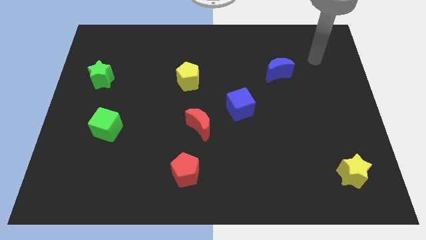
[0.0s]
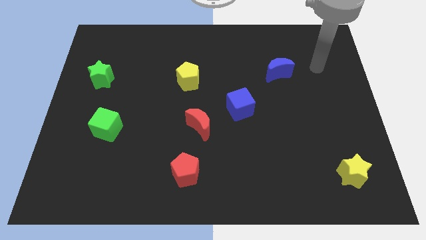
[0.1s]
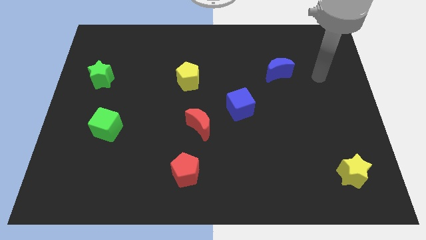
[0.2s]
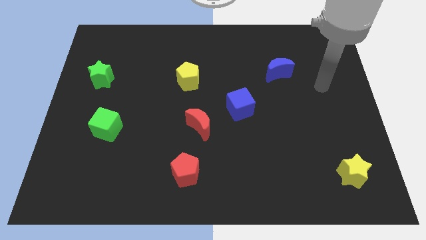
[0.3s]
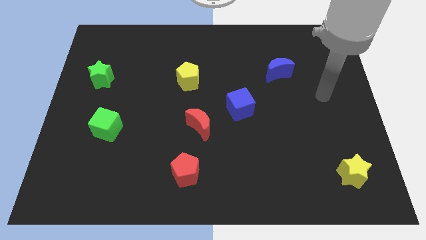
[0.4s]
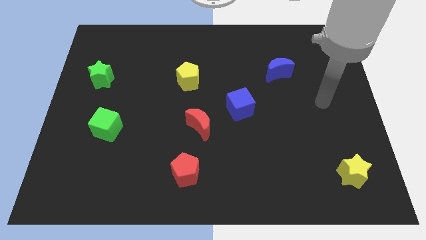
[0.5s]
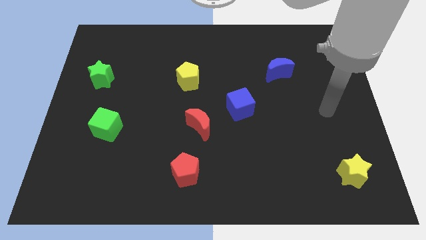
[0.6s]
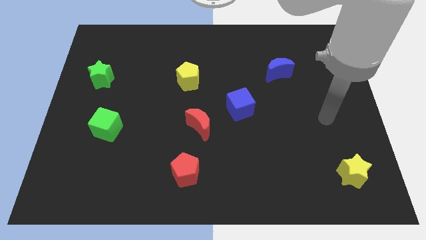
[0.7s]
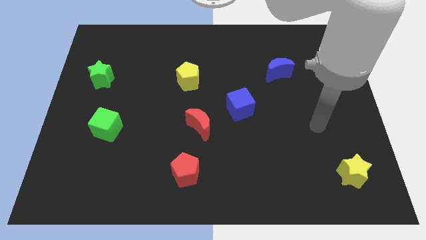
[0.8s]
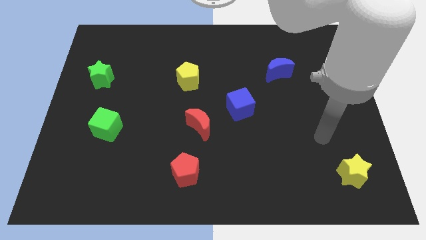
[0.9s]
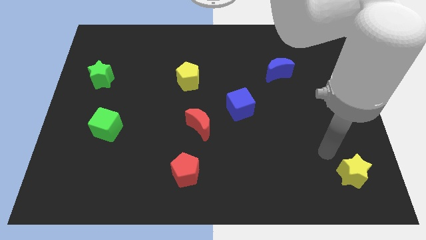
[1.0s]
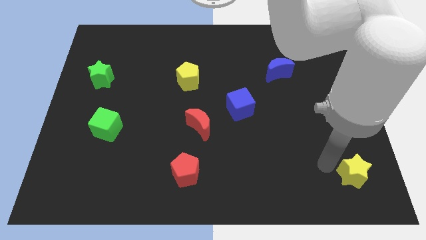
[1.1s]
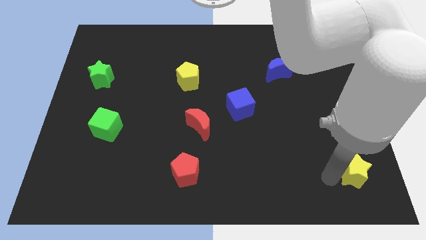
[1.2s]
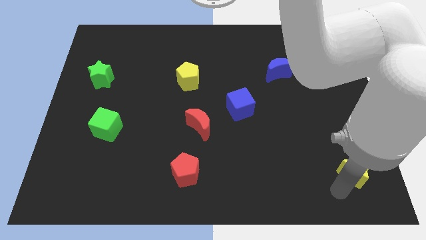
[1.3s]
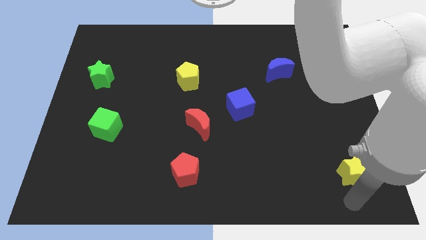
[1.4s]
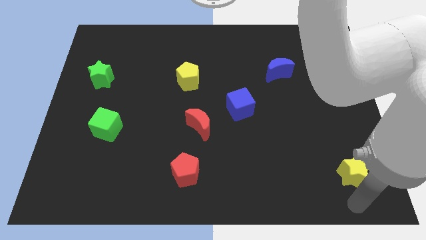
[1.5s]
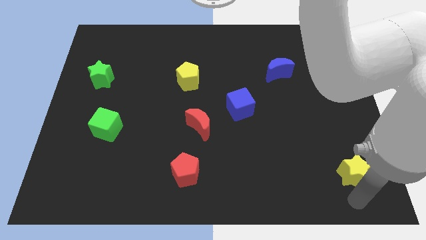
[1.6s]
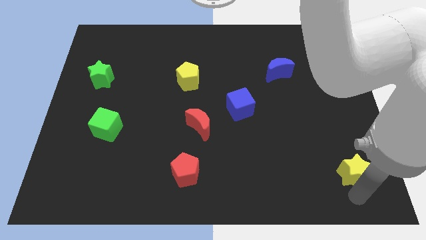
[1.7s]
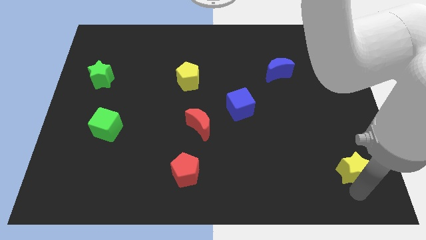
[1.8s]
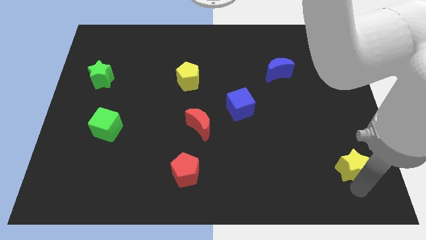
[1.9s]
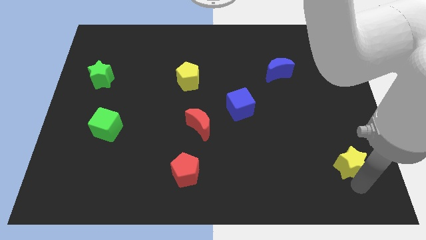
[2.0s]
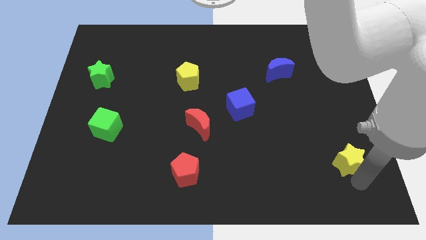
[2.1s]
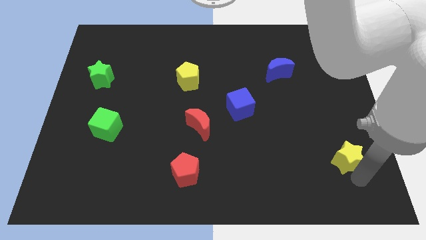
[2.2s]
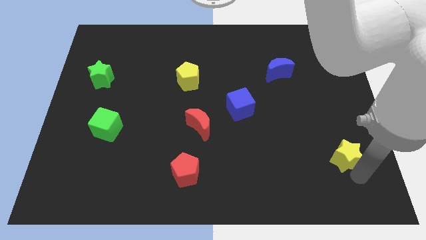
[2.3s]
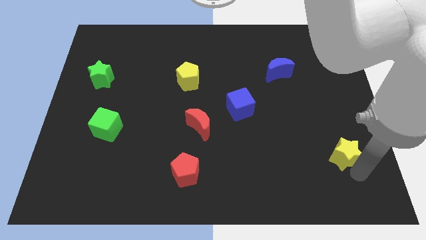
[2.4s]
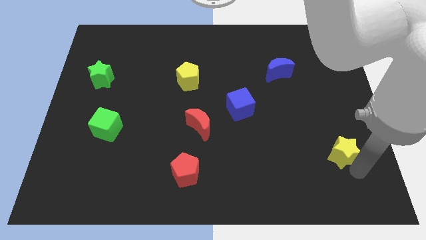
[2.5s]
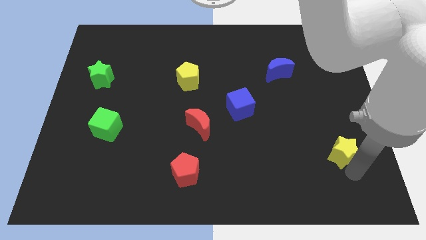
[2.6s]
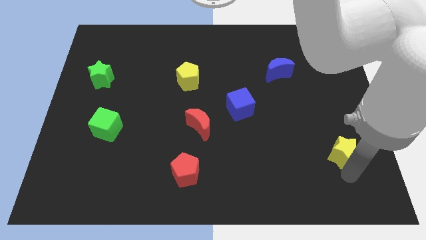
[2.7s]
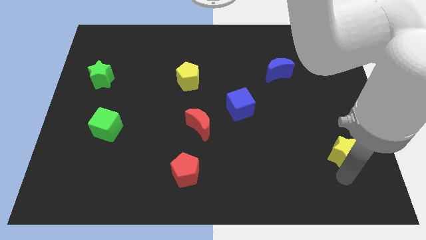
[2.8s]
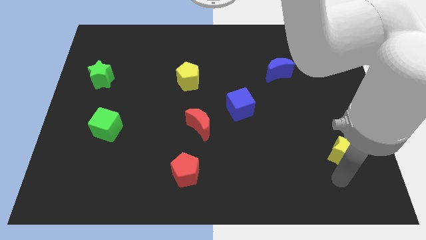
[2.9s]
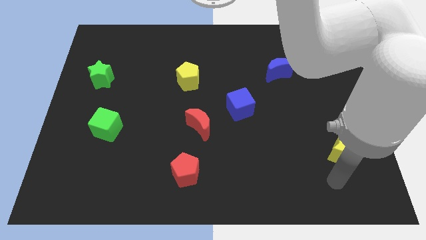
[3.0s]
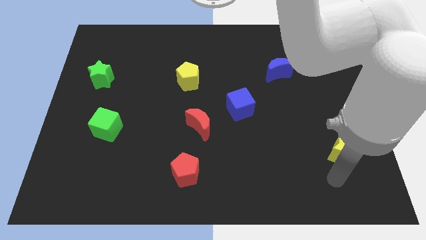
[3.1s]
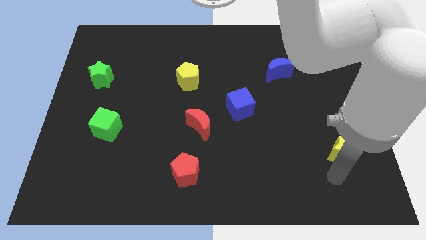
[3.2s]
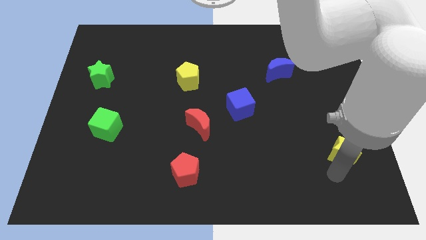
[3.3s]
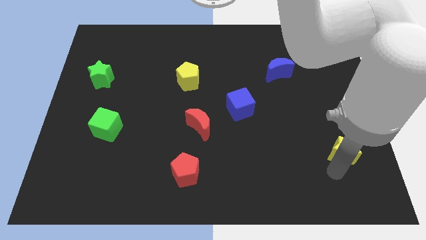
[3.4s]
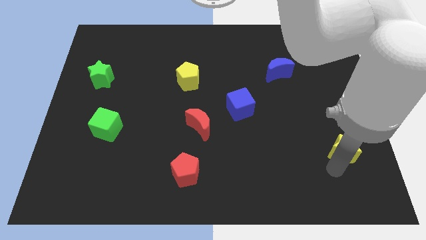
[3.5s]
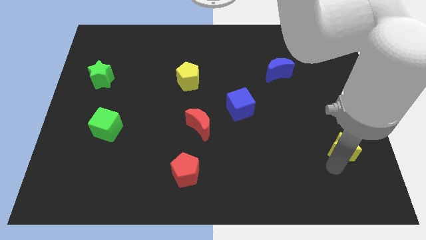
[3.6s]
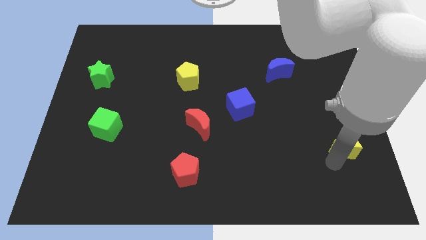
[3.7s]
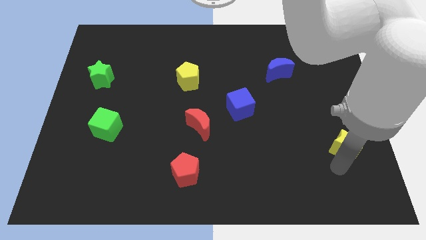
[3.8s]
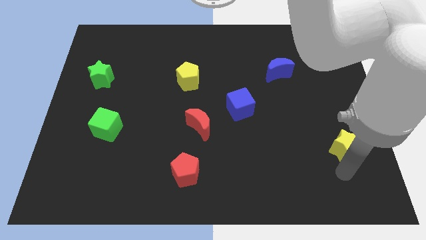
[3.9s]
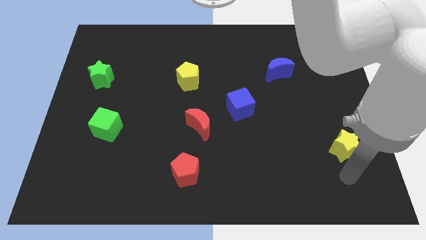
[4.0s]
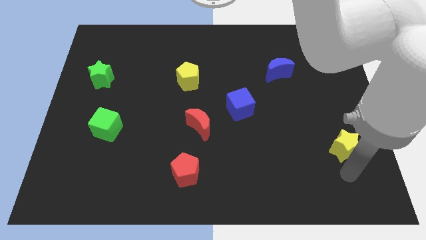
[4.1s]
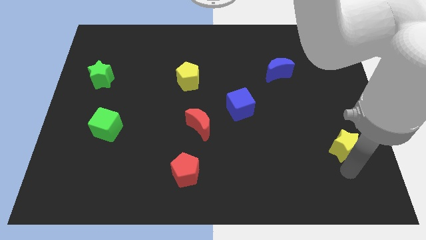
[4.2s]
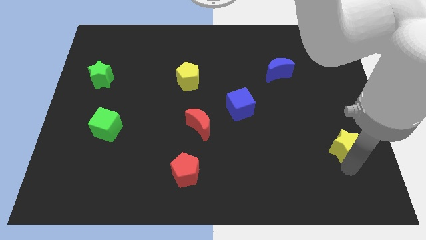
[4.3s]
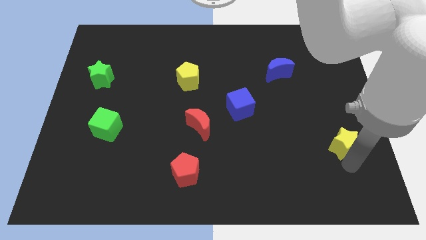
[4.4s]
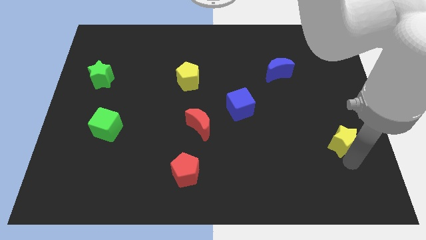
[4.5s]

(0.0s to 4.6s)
push the yellow star upwards a little bit

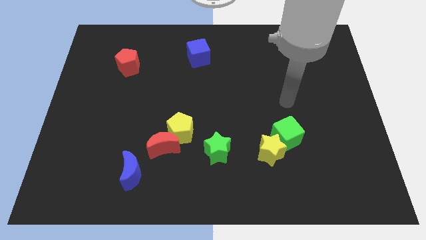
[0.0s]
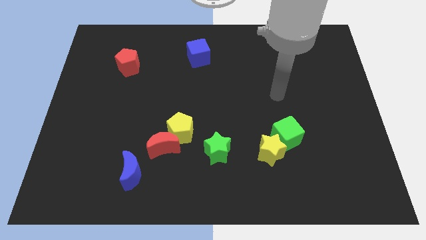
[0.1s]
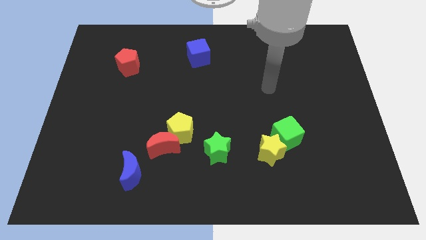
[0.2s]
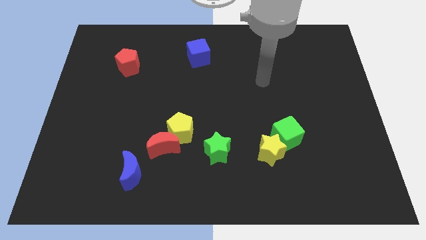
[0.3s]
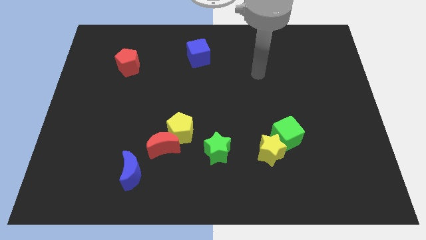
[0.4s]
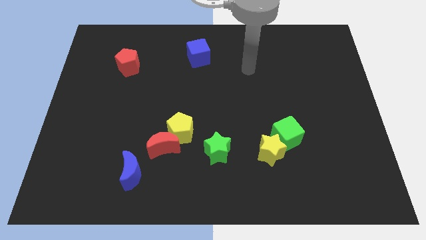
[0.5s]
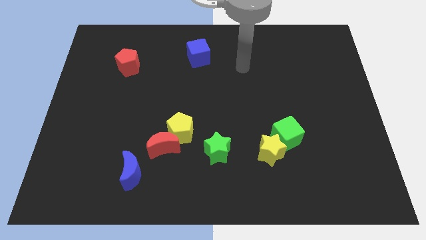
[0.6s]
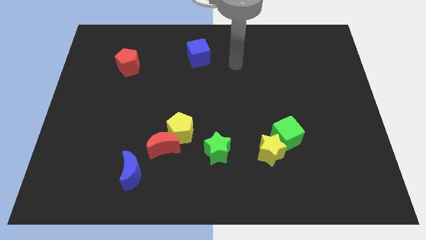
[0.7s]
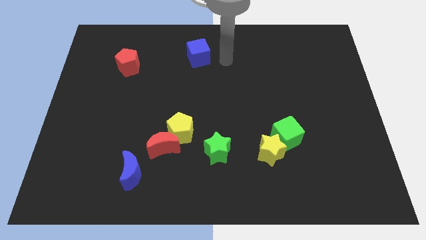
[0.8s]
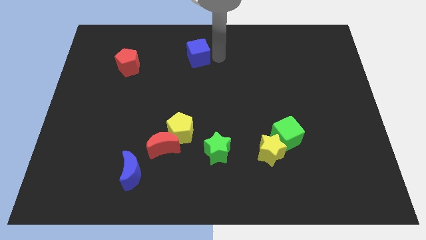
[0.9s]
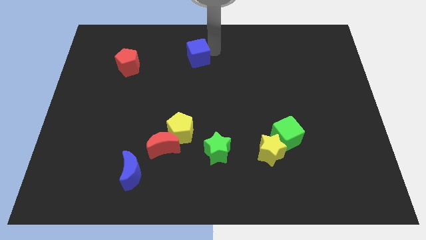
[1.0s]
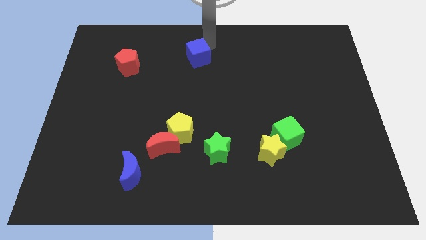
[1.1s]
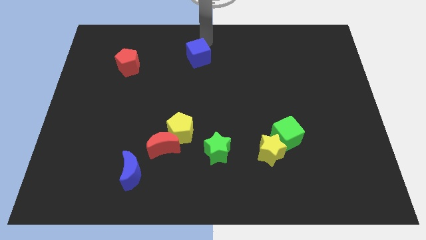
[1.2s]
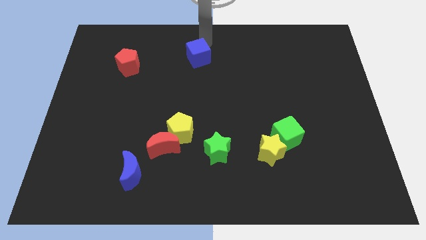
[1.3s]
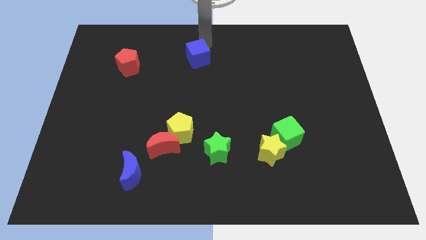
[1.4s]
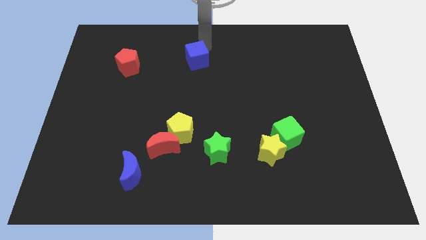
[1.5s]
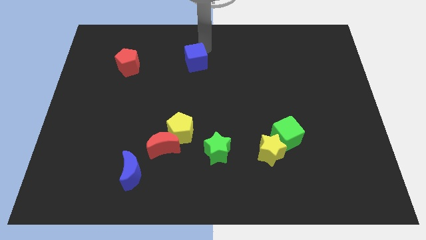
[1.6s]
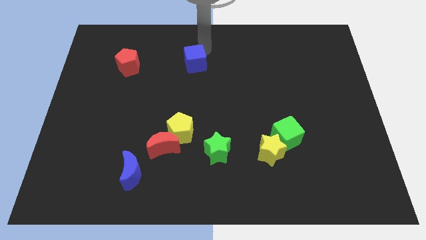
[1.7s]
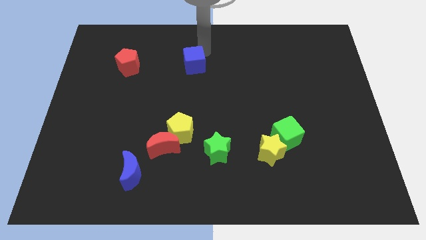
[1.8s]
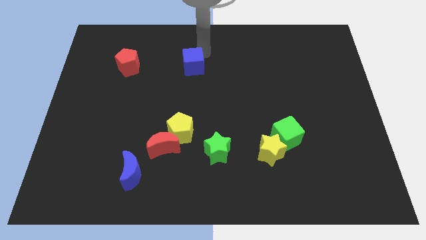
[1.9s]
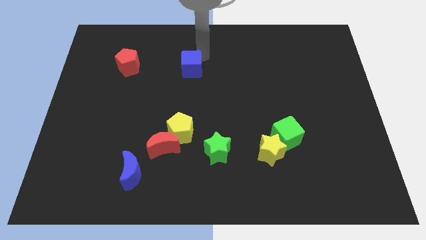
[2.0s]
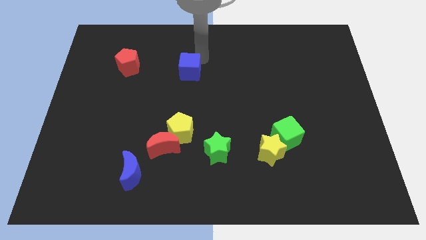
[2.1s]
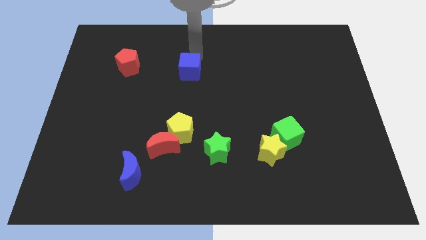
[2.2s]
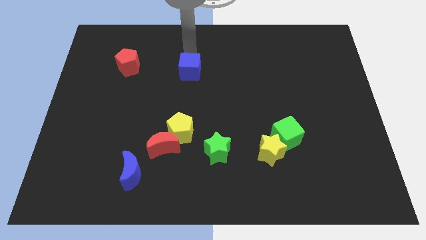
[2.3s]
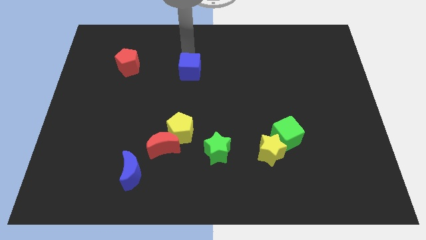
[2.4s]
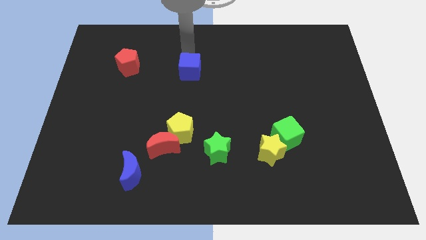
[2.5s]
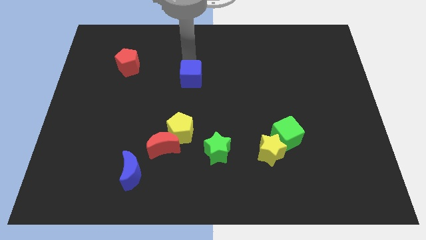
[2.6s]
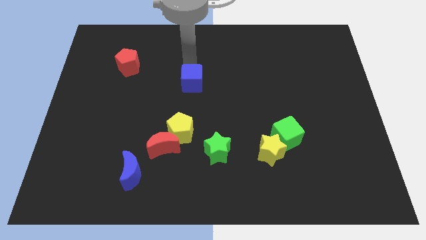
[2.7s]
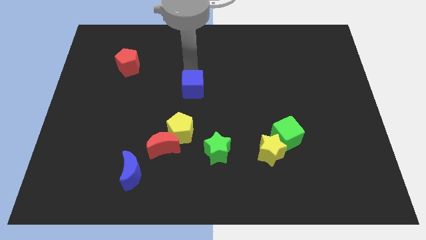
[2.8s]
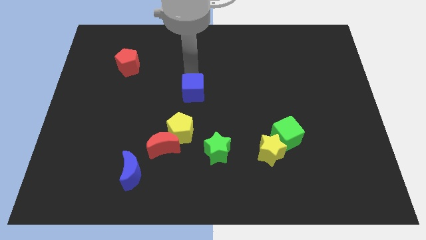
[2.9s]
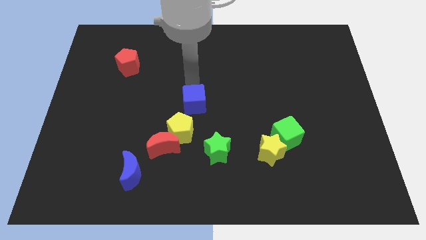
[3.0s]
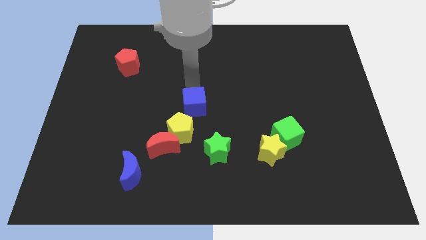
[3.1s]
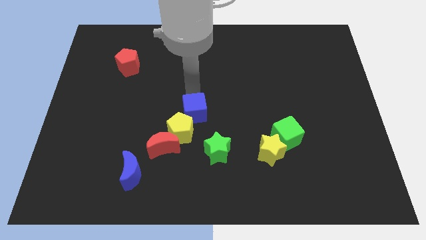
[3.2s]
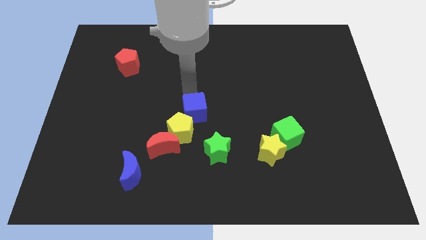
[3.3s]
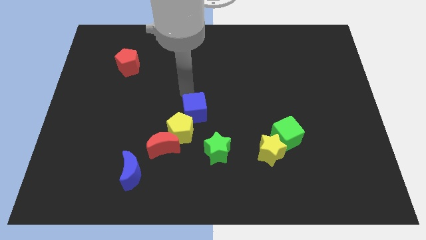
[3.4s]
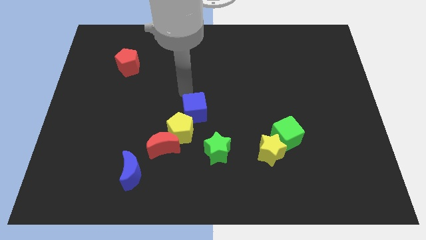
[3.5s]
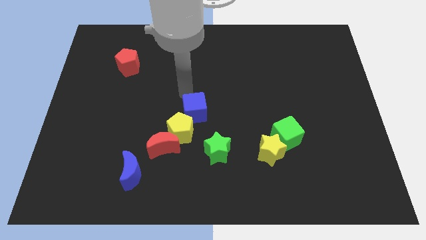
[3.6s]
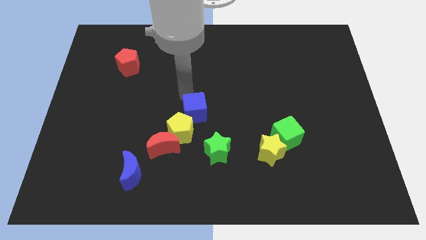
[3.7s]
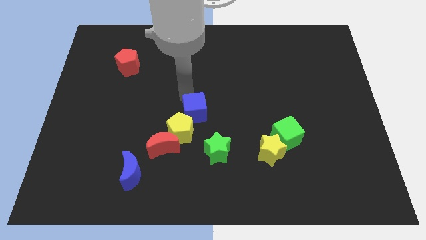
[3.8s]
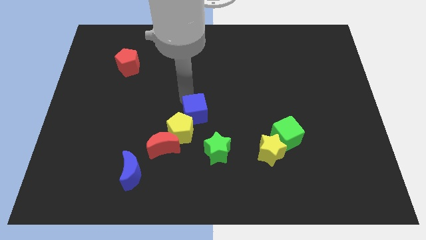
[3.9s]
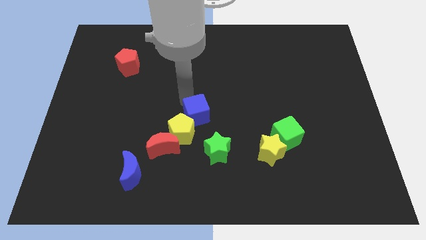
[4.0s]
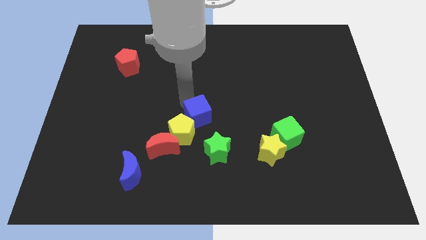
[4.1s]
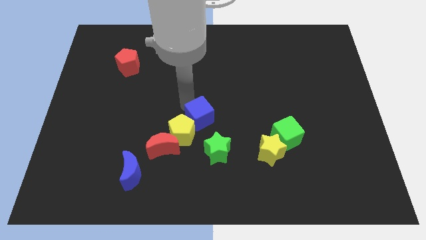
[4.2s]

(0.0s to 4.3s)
push the blue cube downwards
